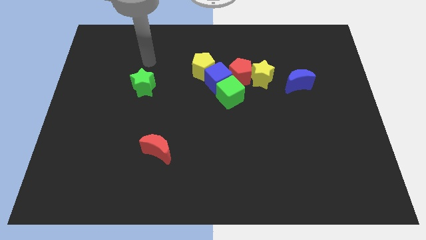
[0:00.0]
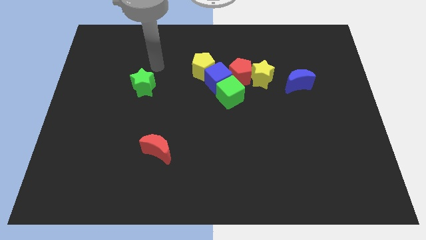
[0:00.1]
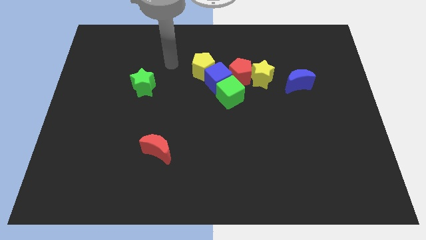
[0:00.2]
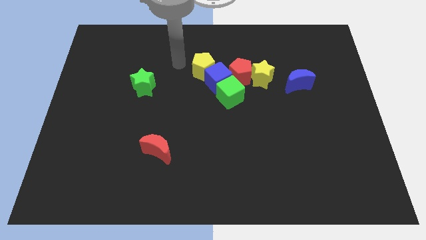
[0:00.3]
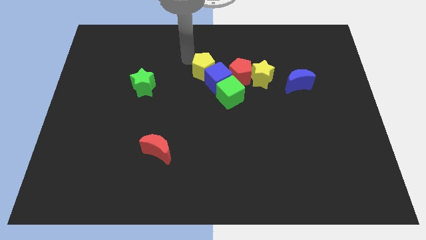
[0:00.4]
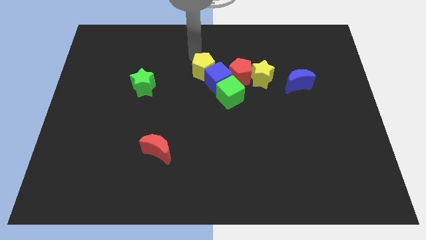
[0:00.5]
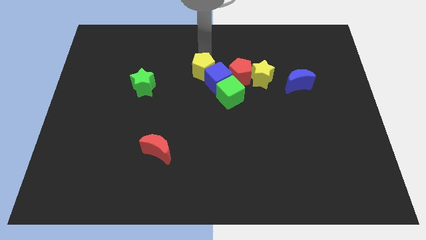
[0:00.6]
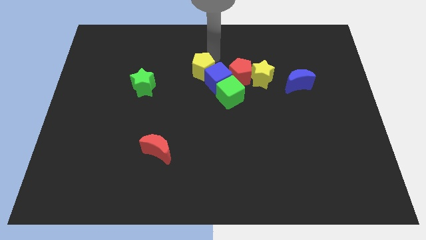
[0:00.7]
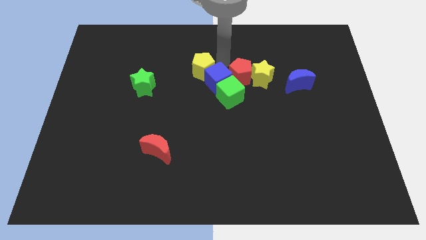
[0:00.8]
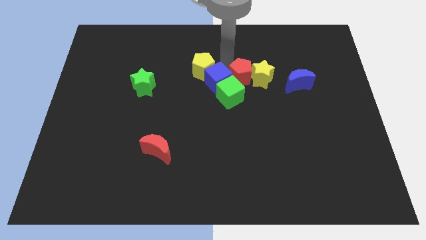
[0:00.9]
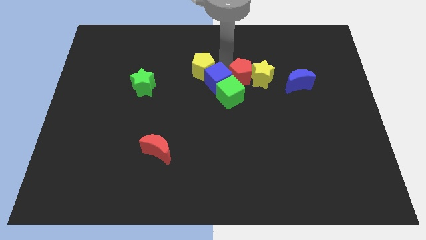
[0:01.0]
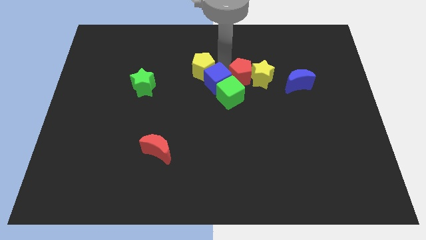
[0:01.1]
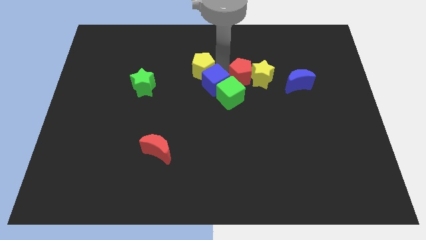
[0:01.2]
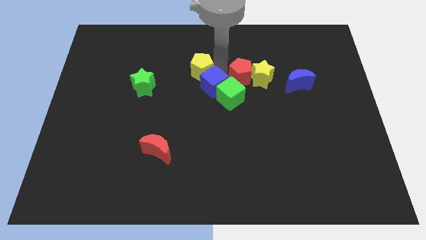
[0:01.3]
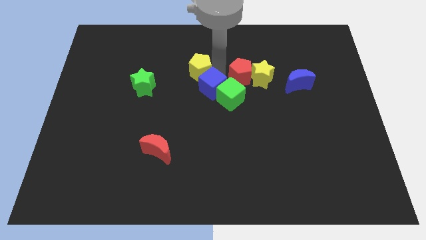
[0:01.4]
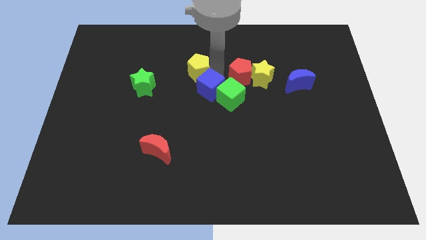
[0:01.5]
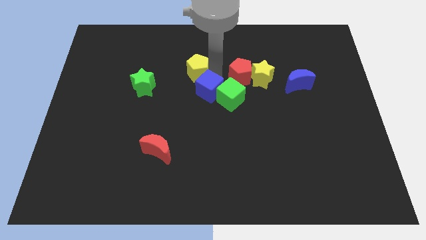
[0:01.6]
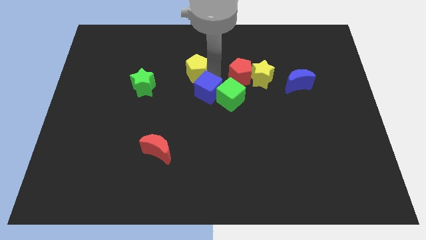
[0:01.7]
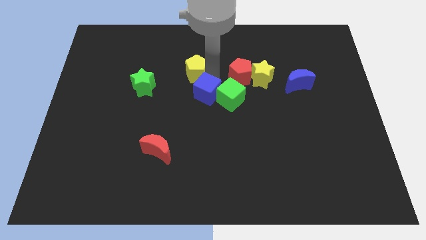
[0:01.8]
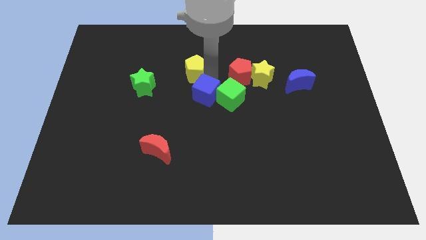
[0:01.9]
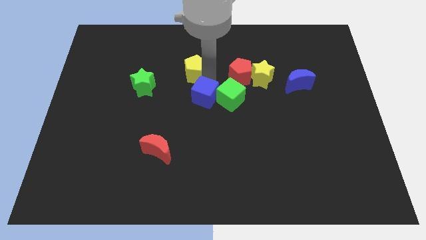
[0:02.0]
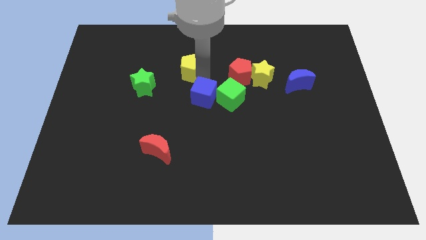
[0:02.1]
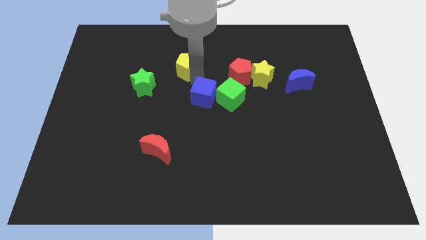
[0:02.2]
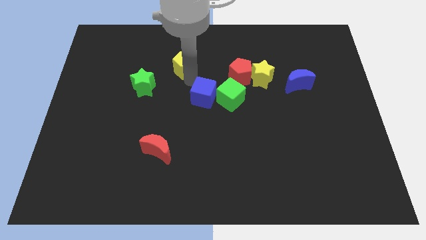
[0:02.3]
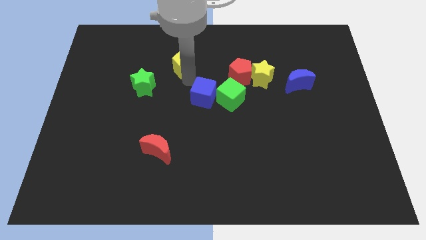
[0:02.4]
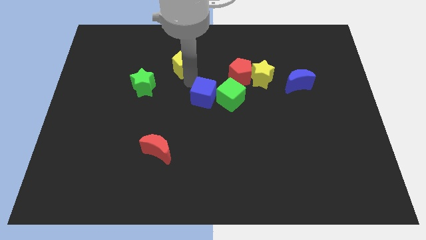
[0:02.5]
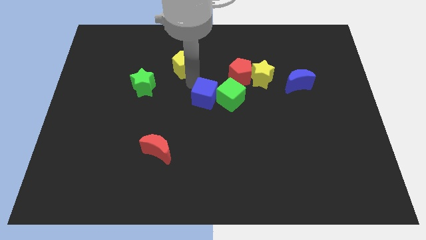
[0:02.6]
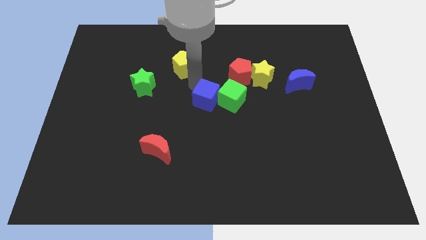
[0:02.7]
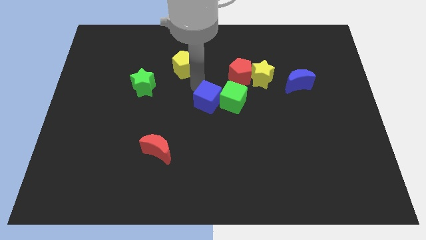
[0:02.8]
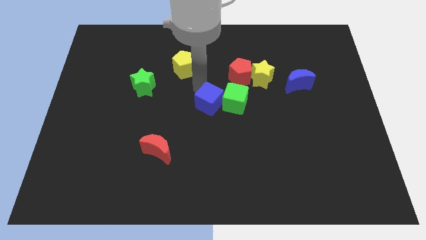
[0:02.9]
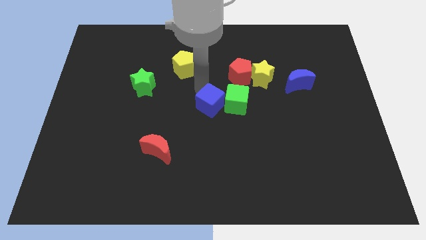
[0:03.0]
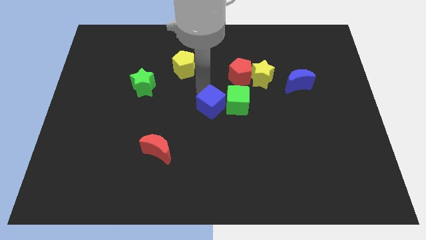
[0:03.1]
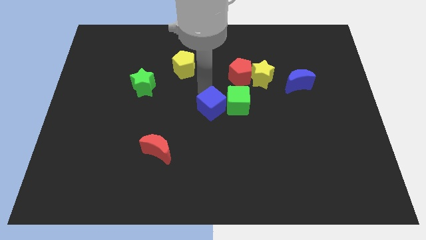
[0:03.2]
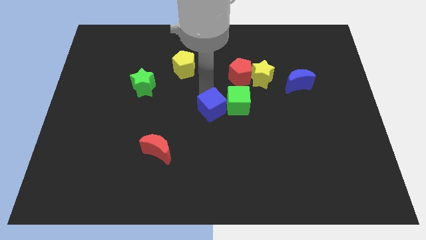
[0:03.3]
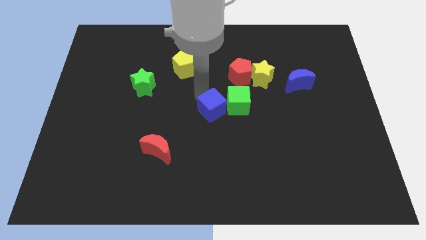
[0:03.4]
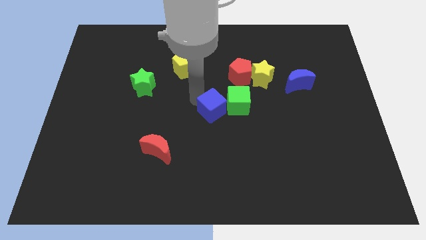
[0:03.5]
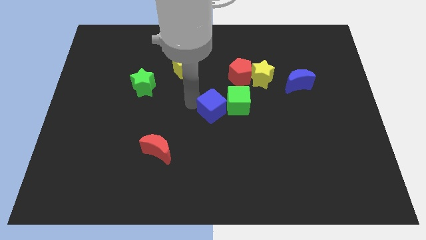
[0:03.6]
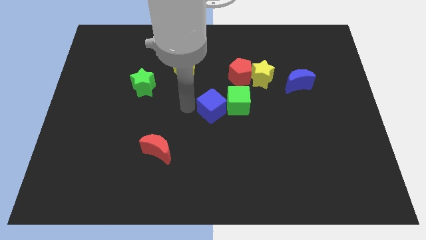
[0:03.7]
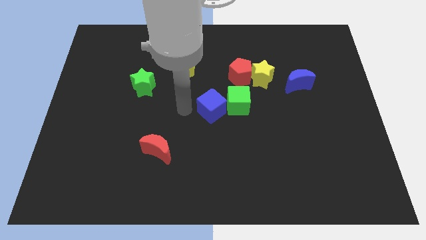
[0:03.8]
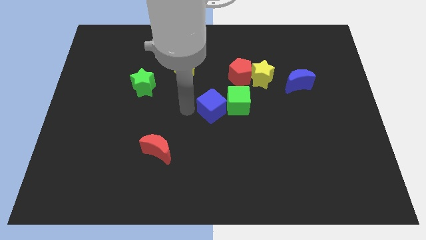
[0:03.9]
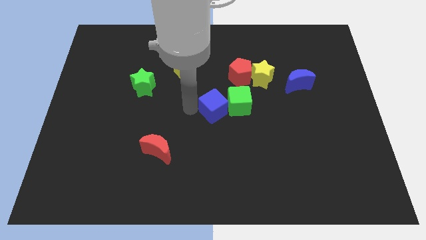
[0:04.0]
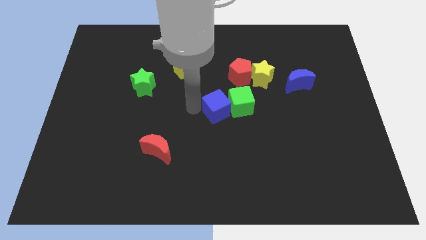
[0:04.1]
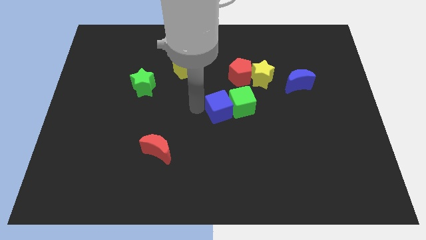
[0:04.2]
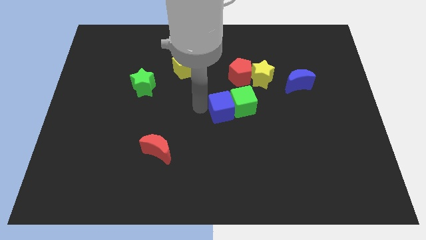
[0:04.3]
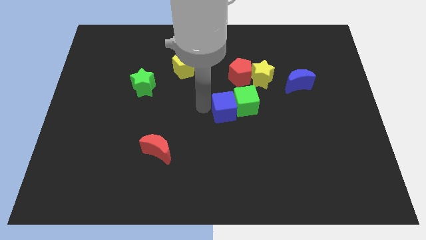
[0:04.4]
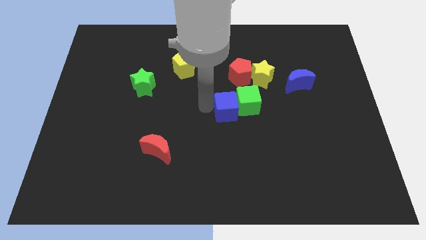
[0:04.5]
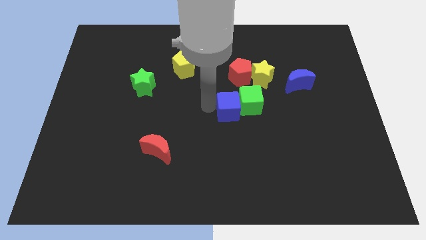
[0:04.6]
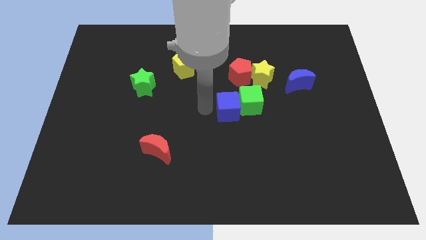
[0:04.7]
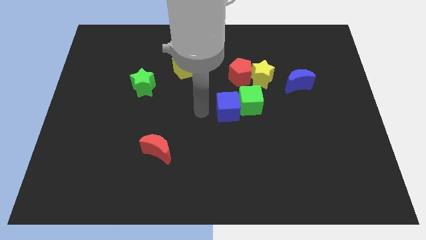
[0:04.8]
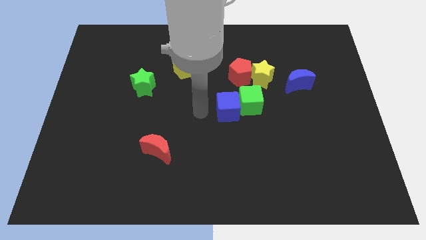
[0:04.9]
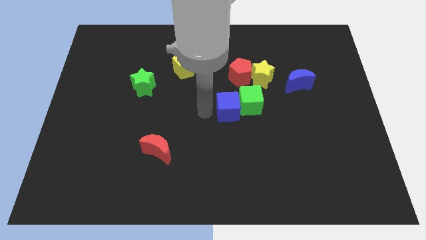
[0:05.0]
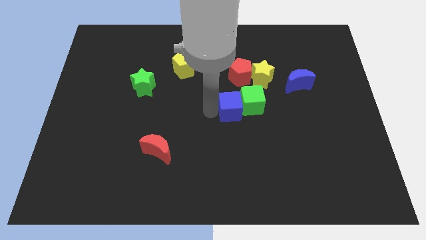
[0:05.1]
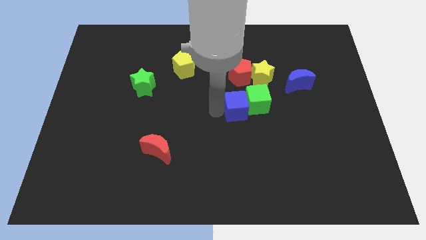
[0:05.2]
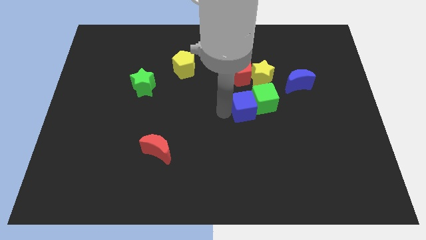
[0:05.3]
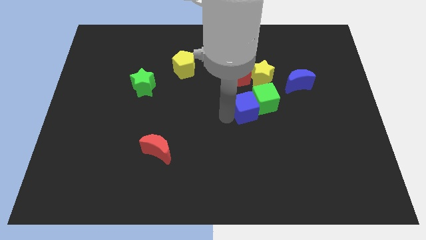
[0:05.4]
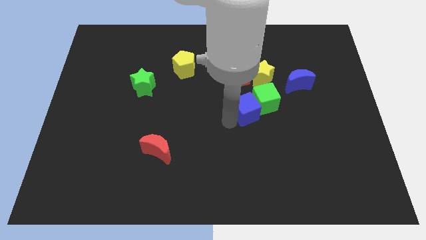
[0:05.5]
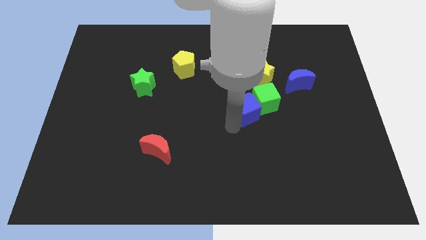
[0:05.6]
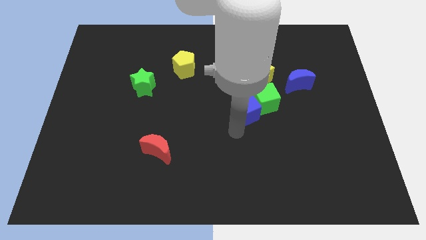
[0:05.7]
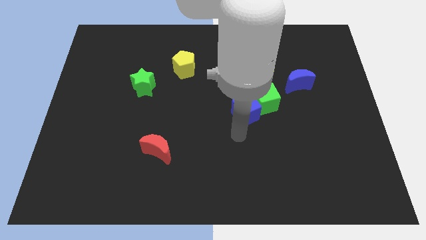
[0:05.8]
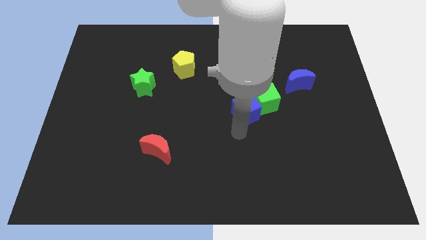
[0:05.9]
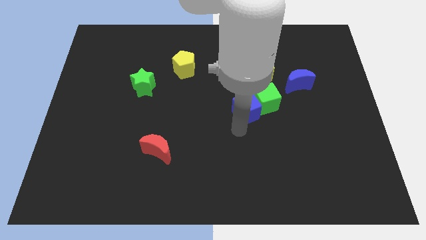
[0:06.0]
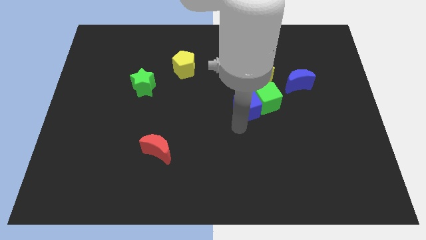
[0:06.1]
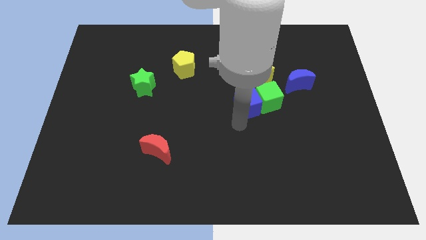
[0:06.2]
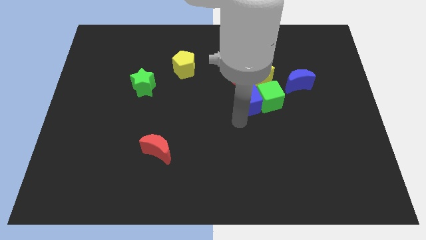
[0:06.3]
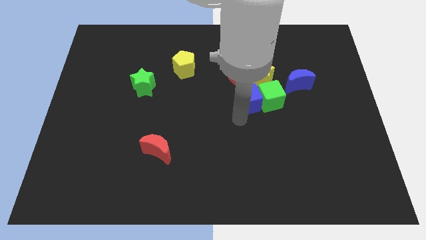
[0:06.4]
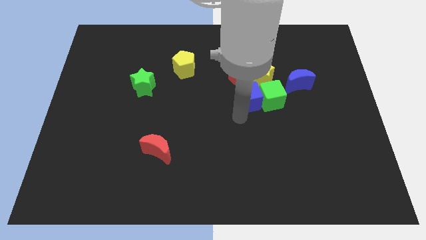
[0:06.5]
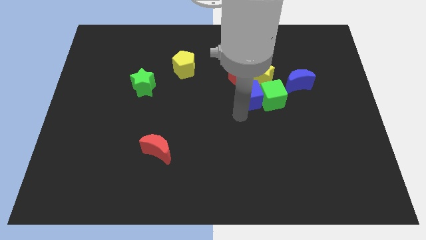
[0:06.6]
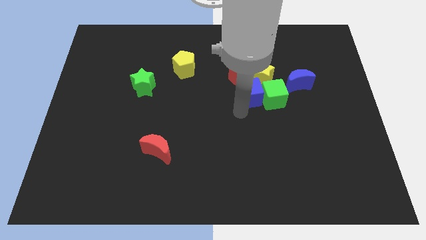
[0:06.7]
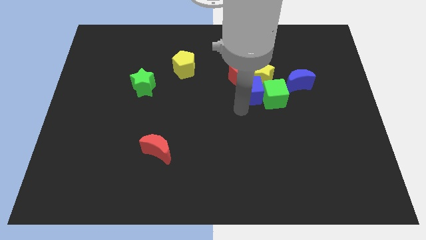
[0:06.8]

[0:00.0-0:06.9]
push the blue cube towards the yellow star
